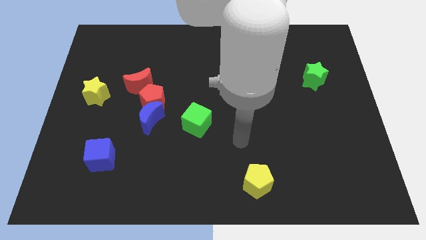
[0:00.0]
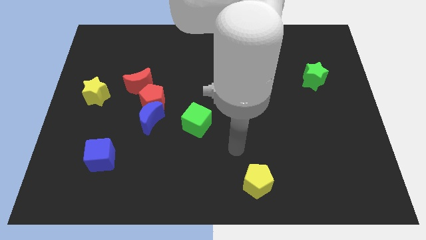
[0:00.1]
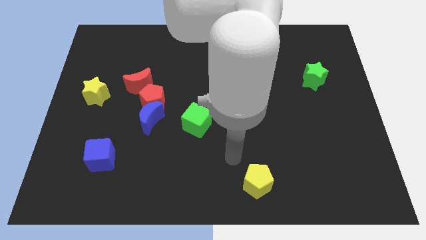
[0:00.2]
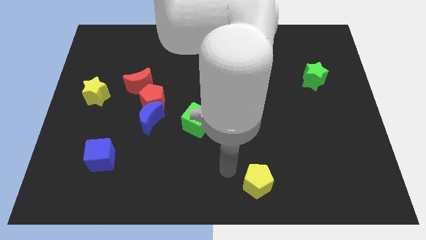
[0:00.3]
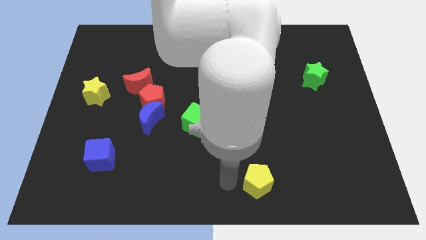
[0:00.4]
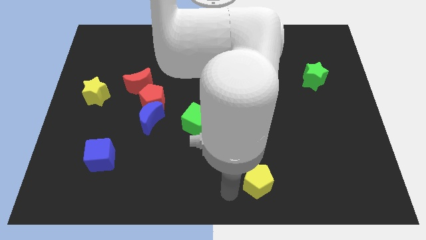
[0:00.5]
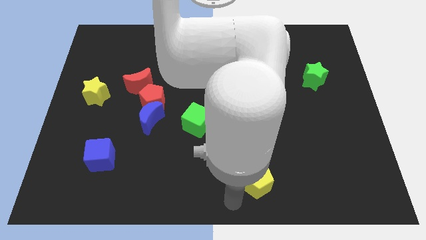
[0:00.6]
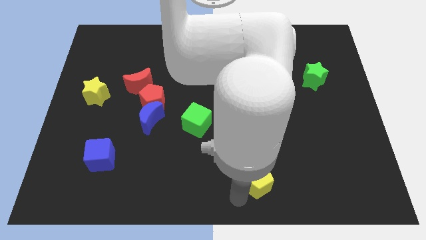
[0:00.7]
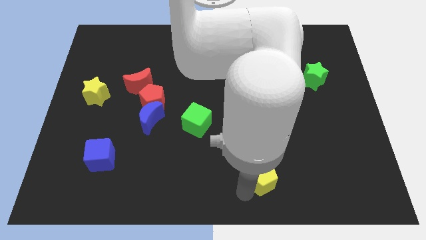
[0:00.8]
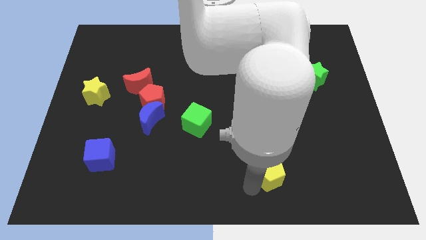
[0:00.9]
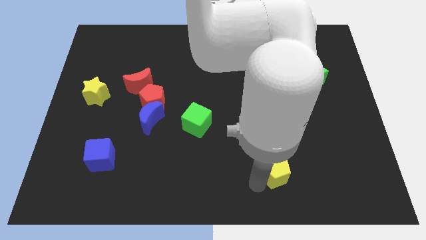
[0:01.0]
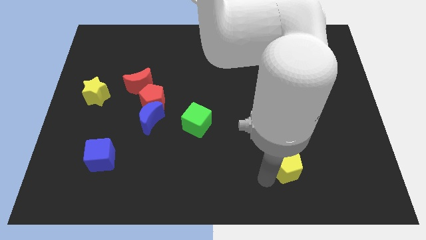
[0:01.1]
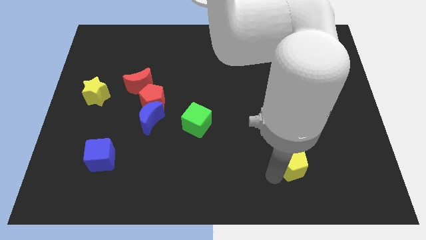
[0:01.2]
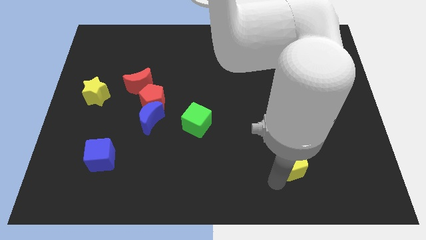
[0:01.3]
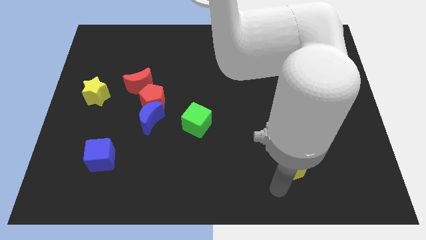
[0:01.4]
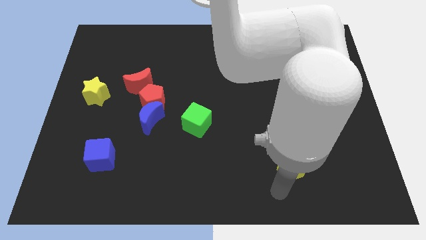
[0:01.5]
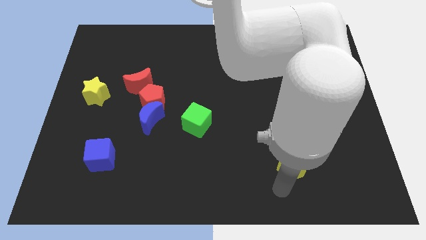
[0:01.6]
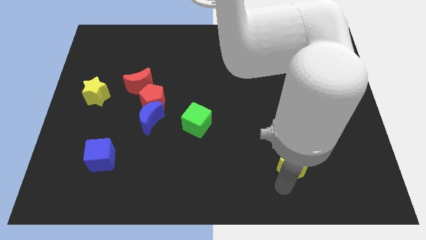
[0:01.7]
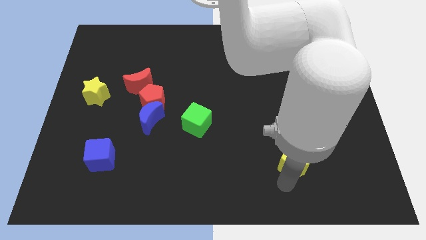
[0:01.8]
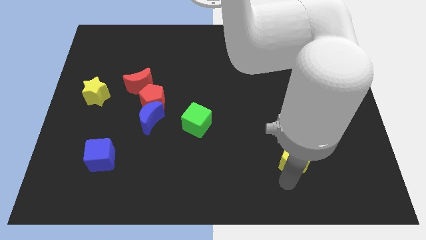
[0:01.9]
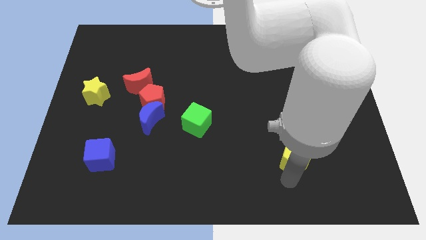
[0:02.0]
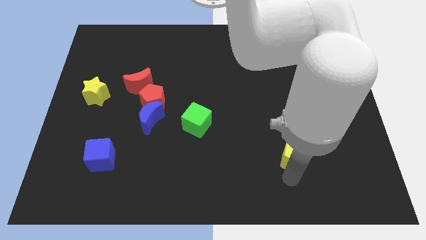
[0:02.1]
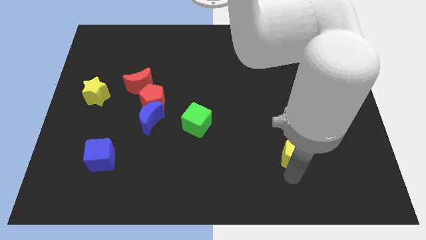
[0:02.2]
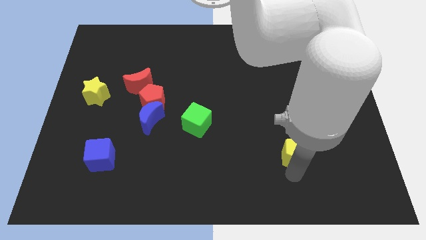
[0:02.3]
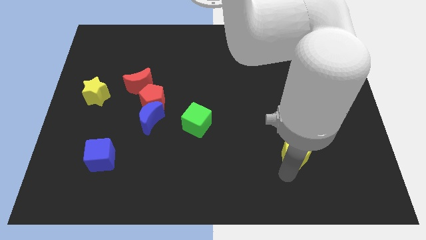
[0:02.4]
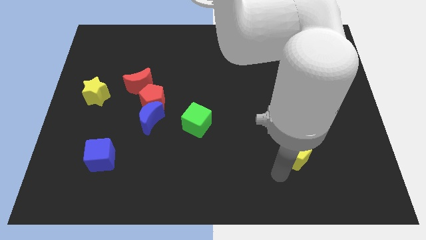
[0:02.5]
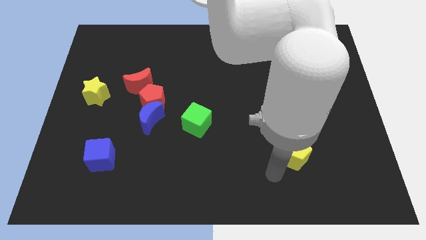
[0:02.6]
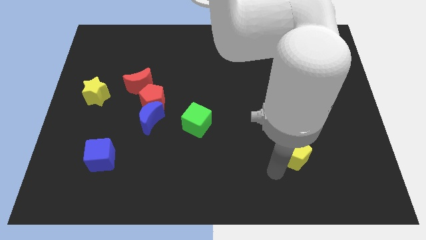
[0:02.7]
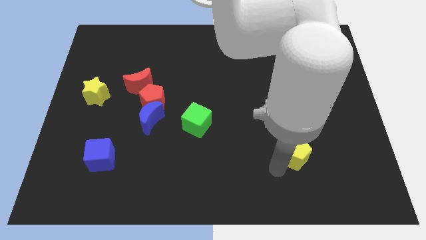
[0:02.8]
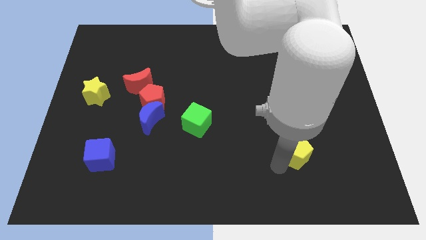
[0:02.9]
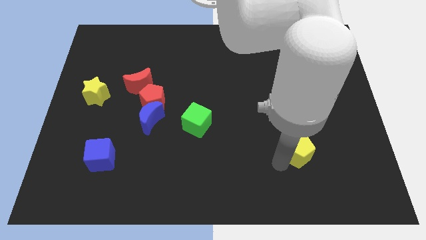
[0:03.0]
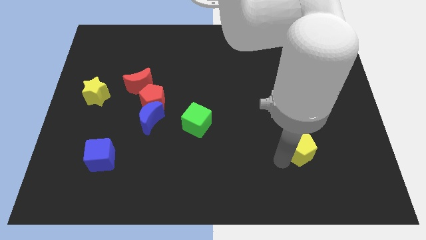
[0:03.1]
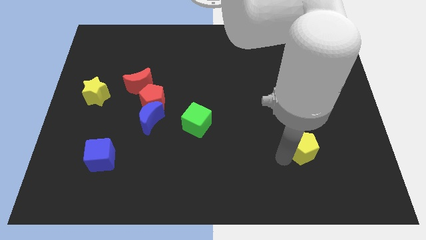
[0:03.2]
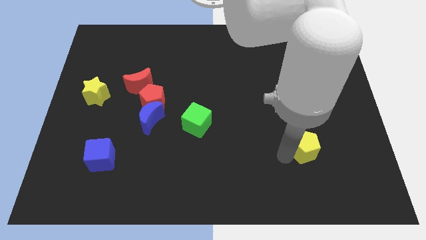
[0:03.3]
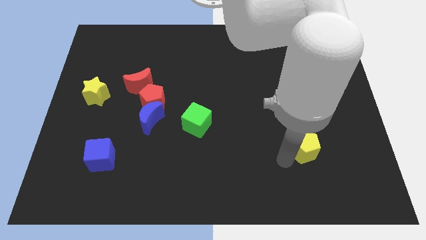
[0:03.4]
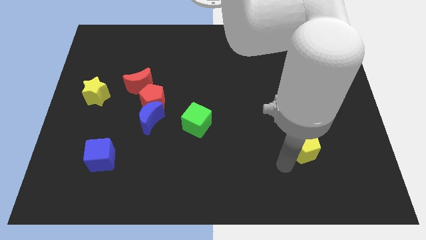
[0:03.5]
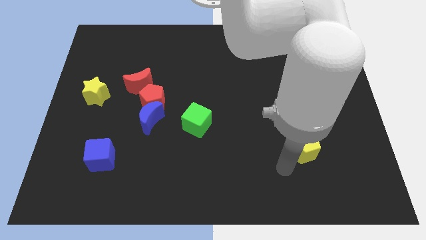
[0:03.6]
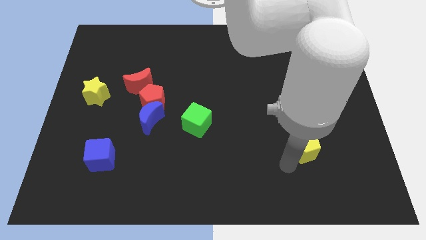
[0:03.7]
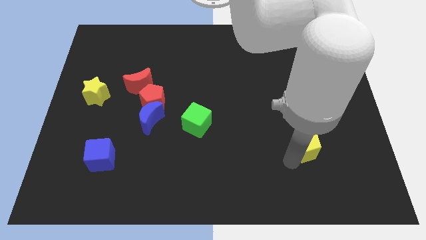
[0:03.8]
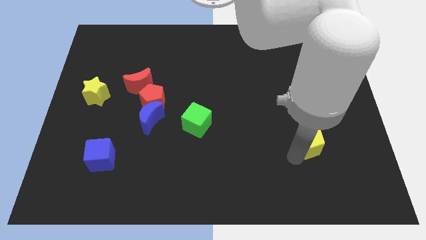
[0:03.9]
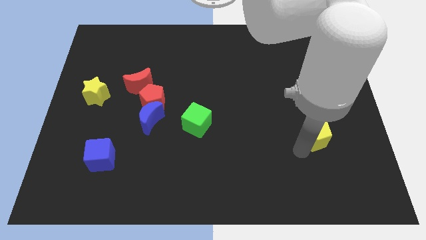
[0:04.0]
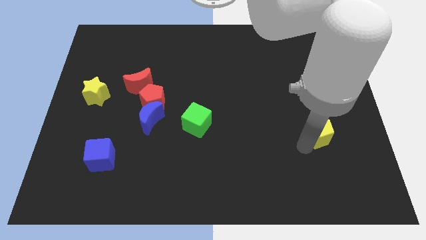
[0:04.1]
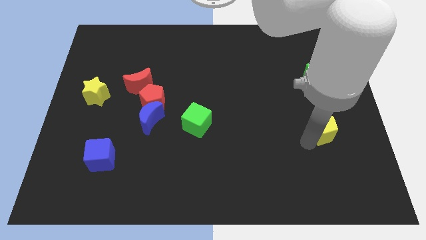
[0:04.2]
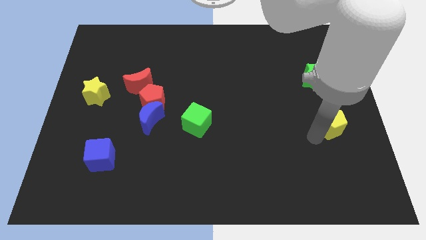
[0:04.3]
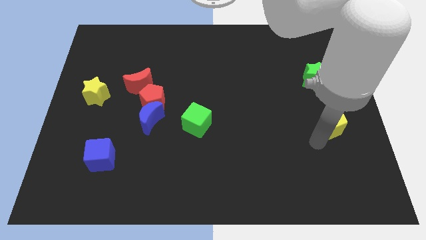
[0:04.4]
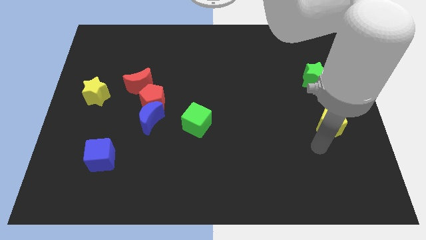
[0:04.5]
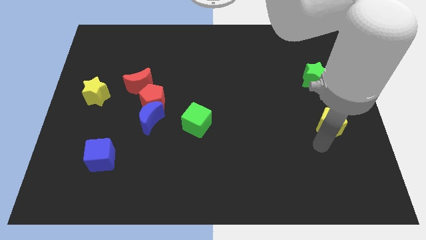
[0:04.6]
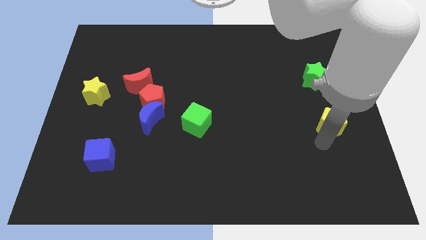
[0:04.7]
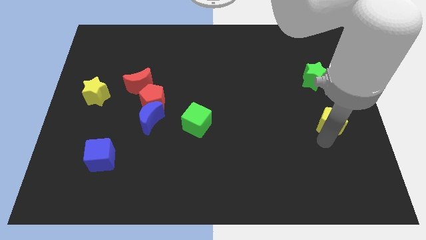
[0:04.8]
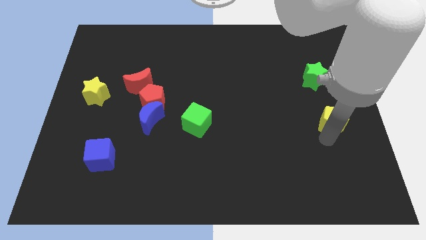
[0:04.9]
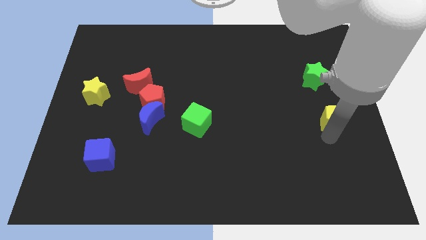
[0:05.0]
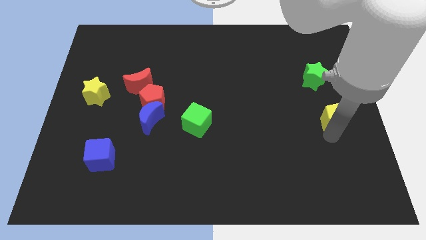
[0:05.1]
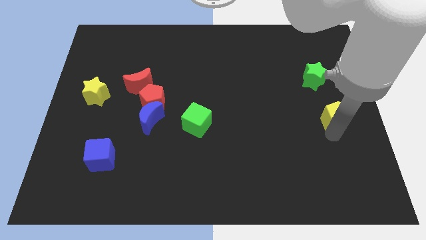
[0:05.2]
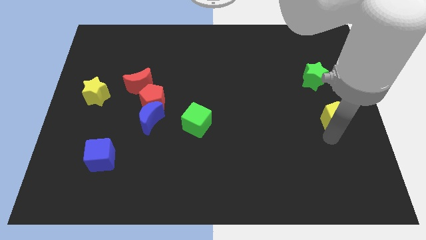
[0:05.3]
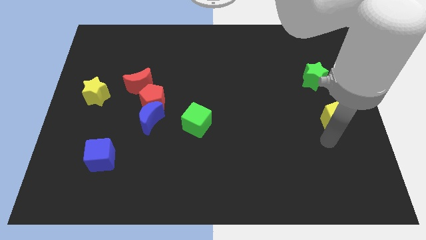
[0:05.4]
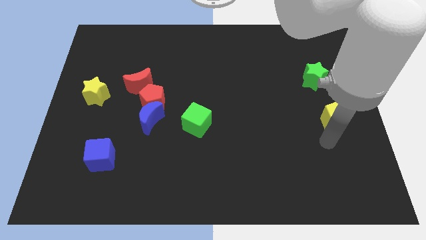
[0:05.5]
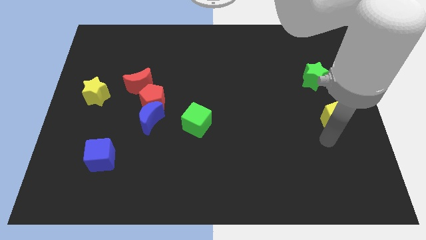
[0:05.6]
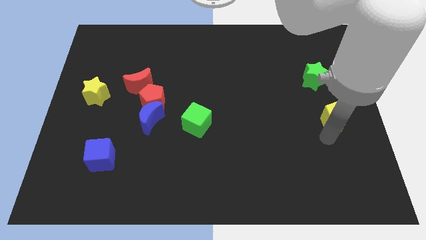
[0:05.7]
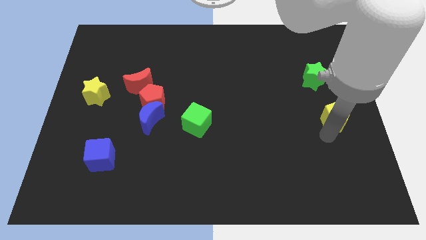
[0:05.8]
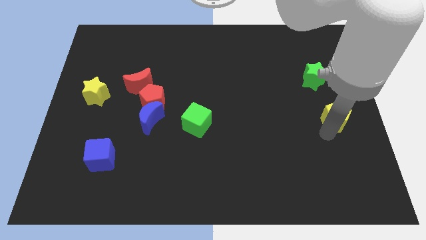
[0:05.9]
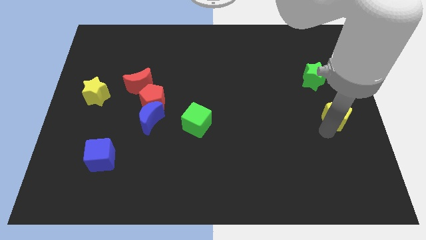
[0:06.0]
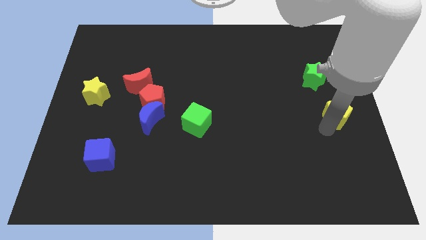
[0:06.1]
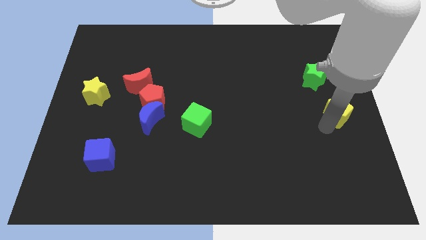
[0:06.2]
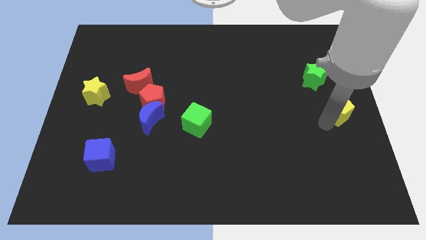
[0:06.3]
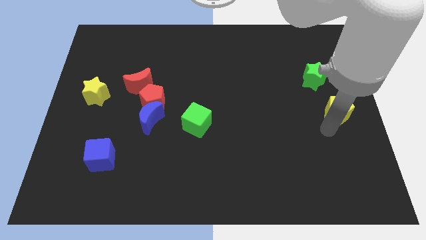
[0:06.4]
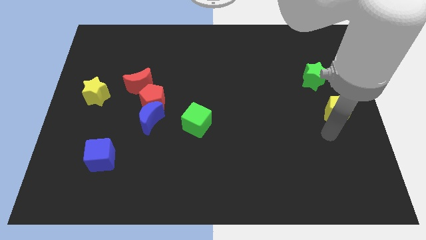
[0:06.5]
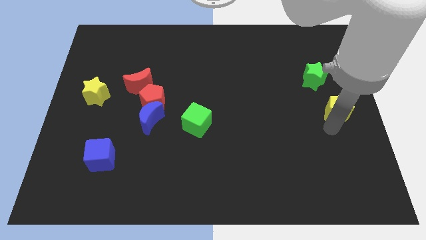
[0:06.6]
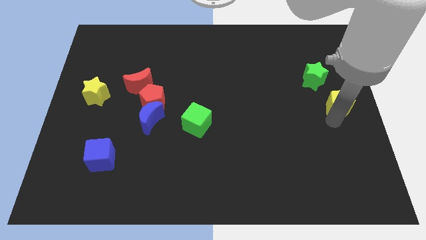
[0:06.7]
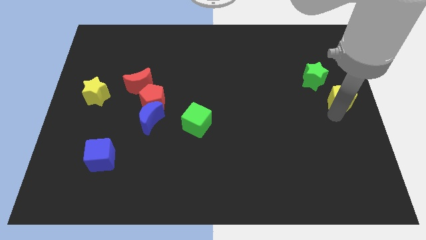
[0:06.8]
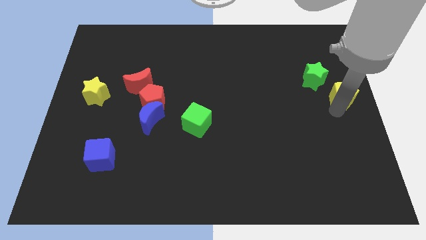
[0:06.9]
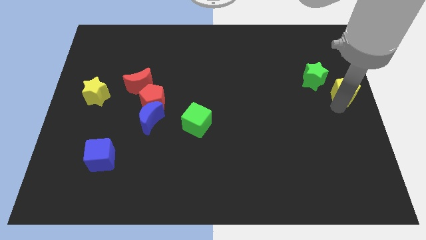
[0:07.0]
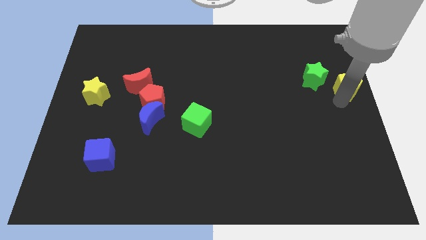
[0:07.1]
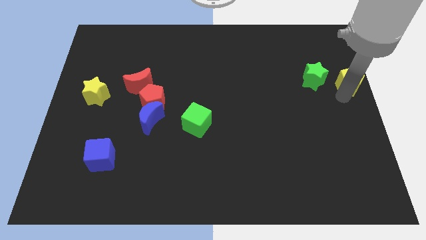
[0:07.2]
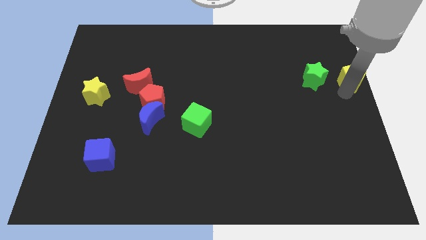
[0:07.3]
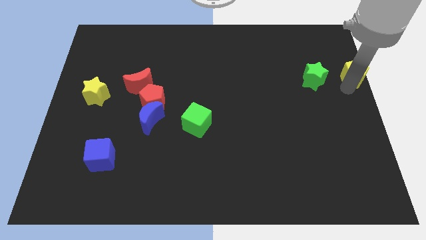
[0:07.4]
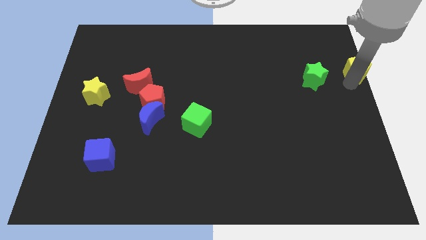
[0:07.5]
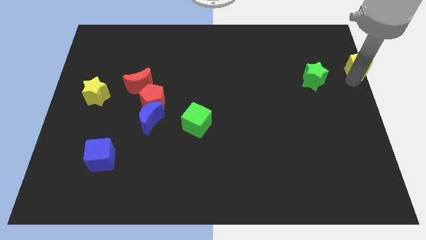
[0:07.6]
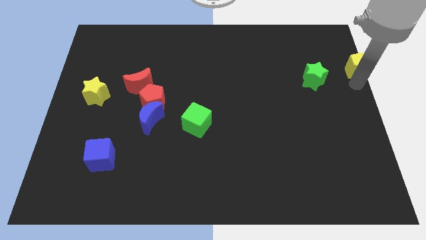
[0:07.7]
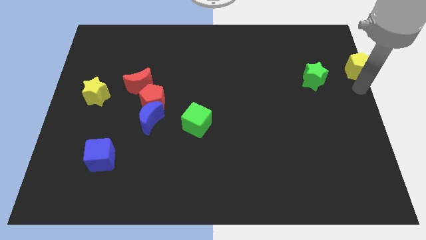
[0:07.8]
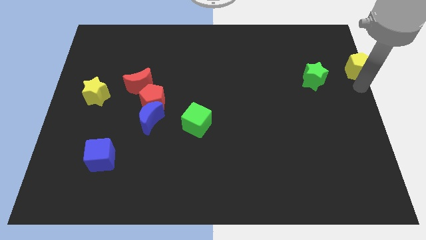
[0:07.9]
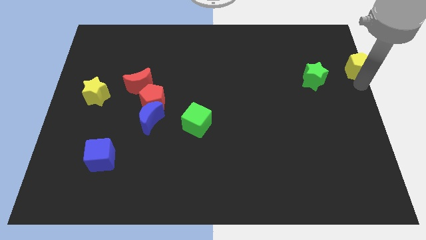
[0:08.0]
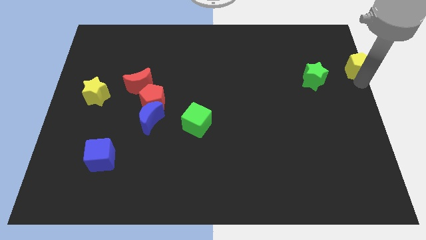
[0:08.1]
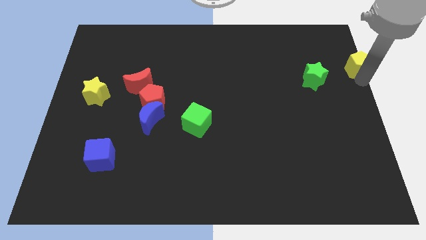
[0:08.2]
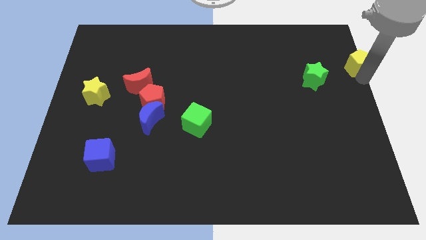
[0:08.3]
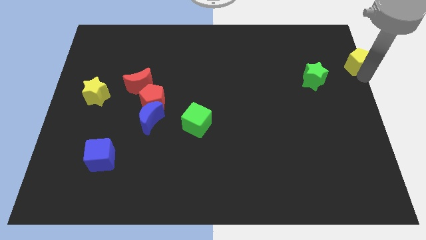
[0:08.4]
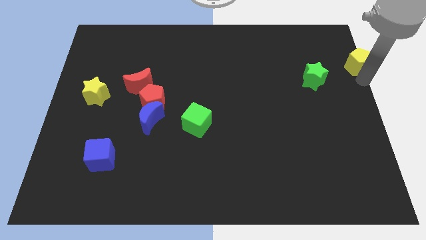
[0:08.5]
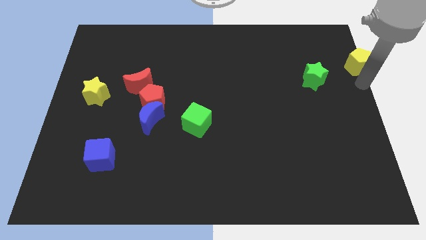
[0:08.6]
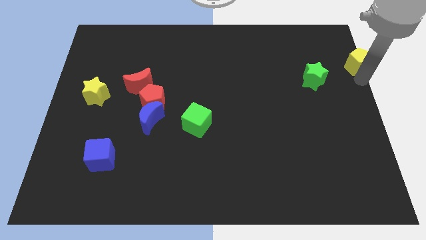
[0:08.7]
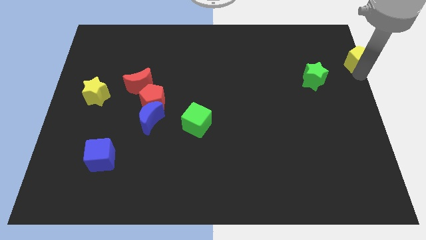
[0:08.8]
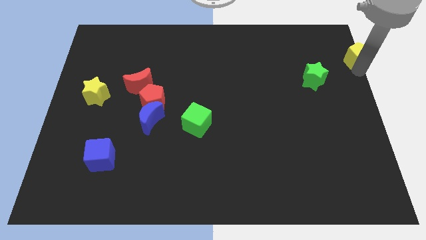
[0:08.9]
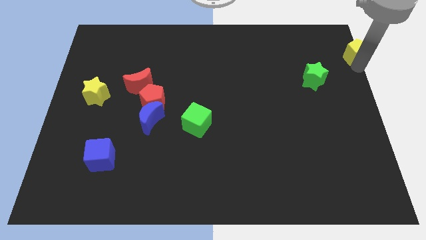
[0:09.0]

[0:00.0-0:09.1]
slide the yellow pentagon to the top right of the board
